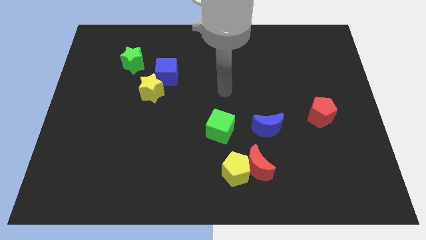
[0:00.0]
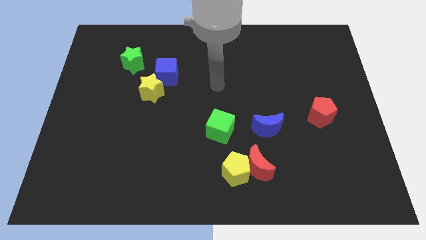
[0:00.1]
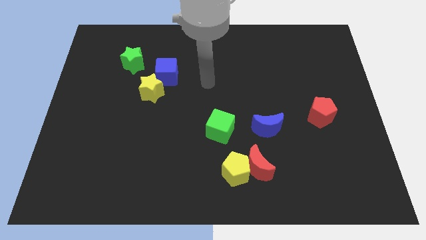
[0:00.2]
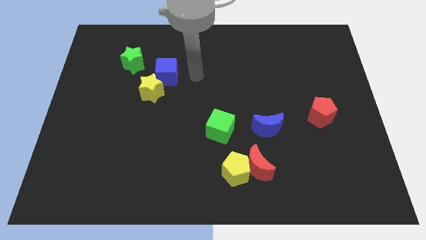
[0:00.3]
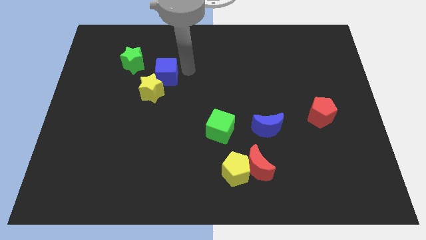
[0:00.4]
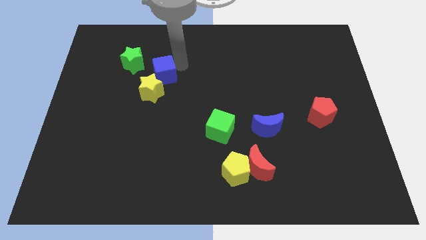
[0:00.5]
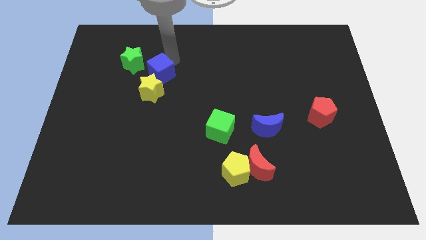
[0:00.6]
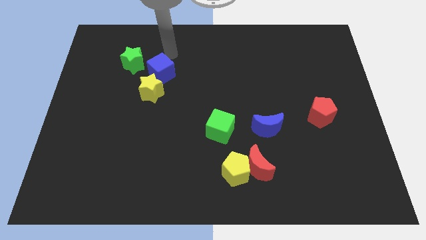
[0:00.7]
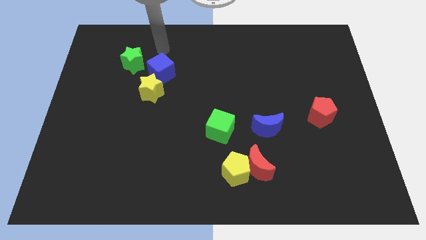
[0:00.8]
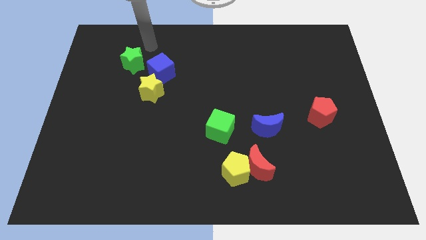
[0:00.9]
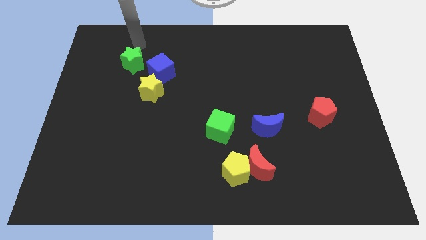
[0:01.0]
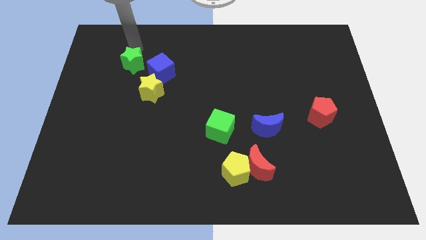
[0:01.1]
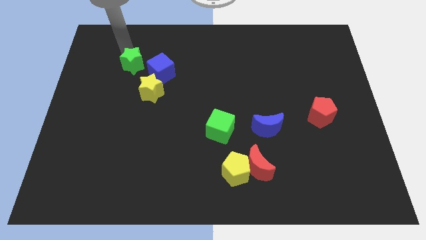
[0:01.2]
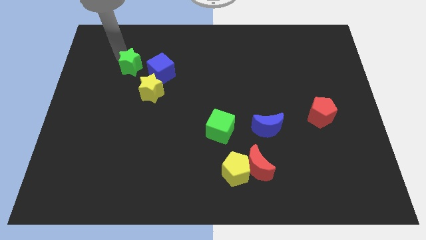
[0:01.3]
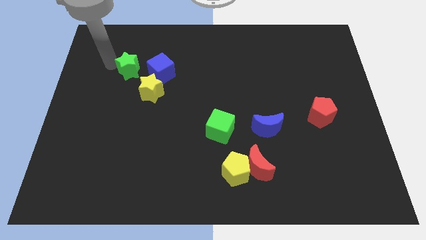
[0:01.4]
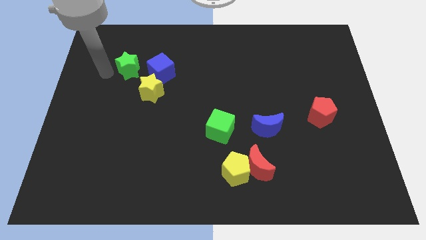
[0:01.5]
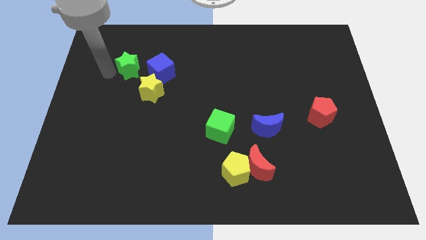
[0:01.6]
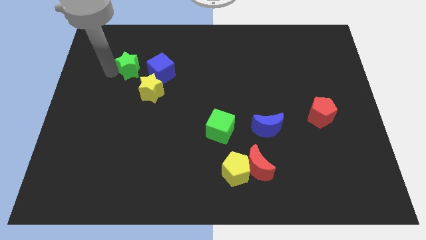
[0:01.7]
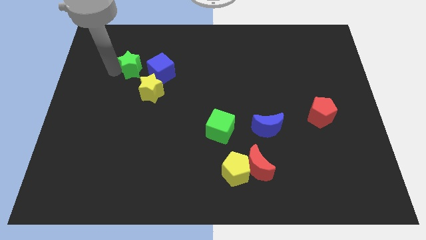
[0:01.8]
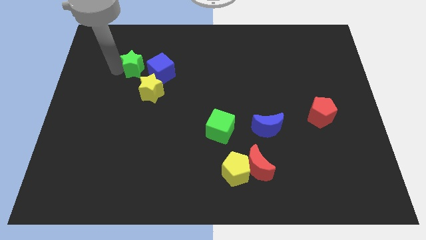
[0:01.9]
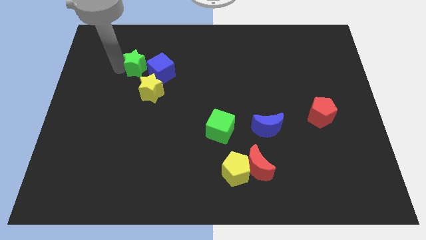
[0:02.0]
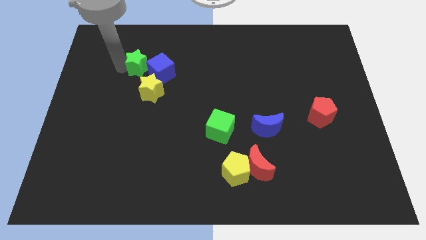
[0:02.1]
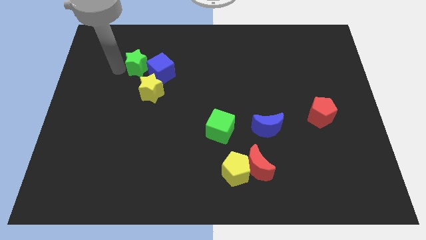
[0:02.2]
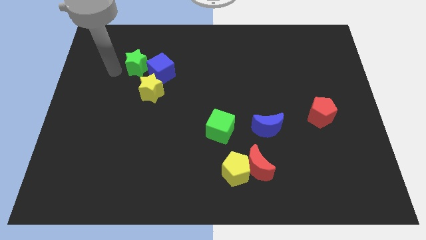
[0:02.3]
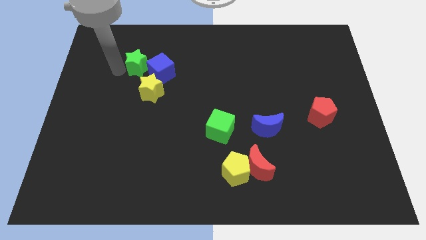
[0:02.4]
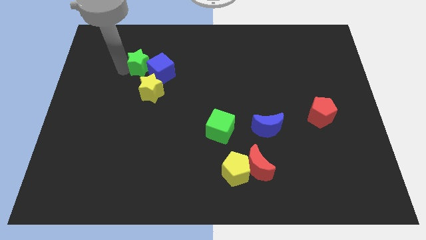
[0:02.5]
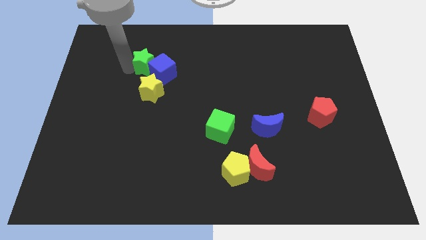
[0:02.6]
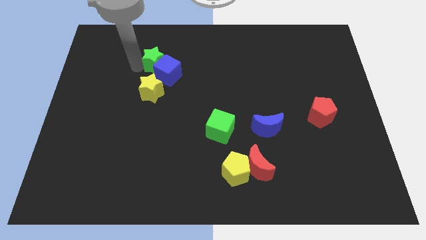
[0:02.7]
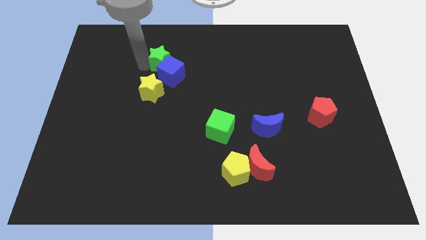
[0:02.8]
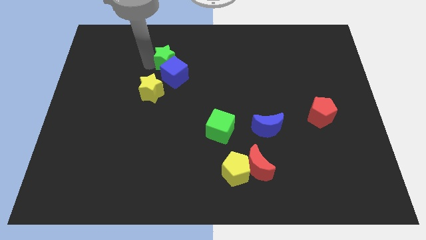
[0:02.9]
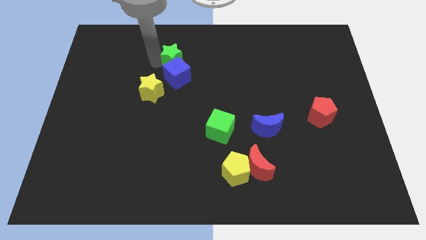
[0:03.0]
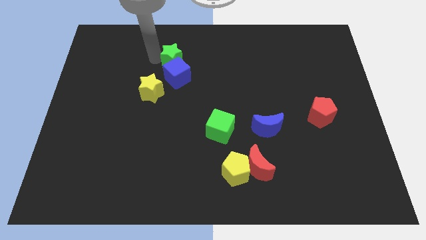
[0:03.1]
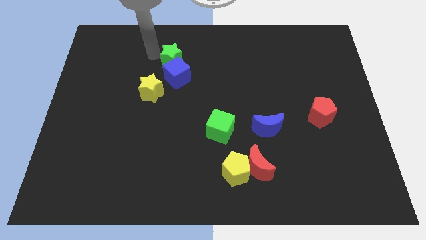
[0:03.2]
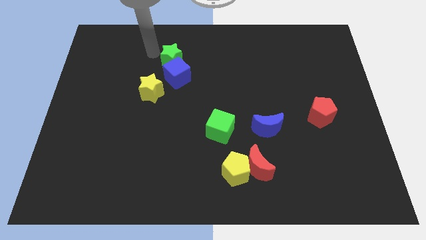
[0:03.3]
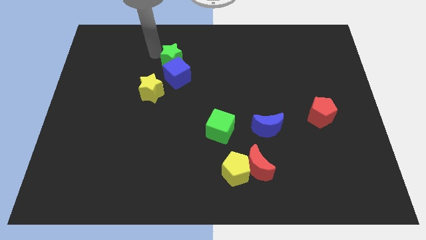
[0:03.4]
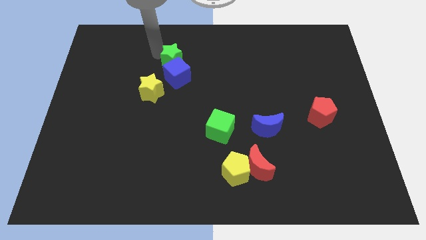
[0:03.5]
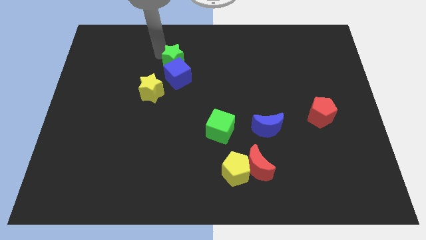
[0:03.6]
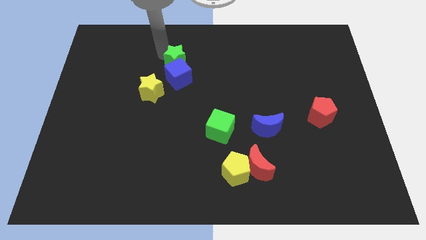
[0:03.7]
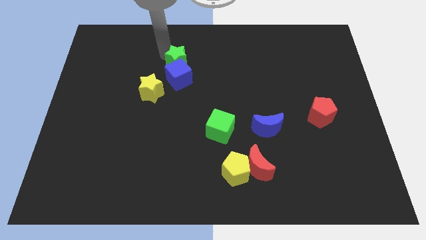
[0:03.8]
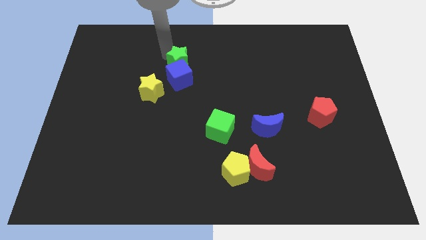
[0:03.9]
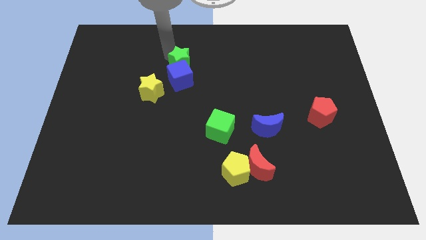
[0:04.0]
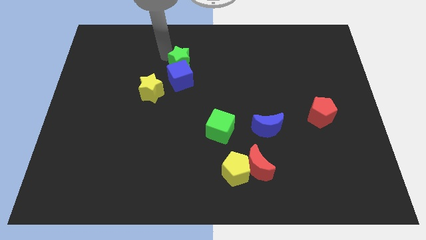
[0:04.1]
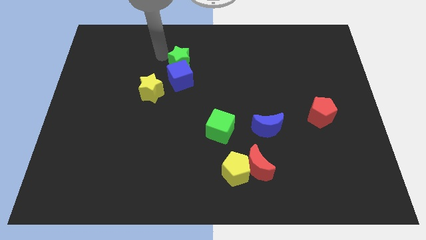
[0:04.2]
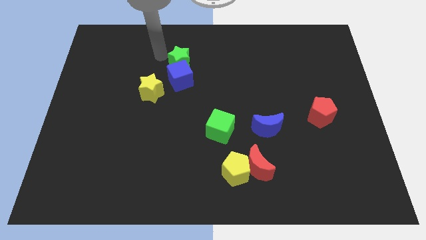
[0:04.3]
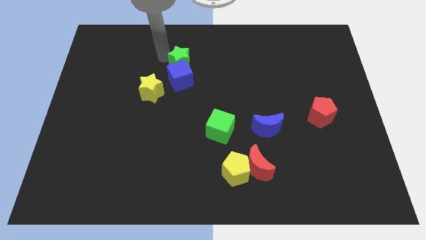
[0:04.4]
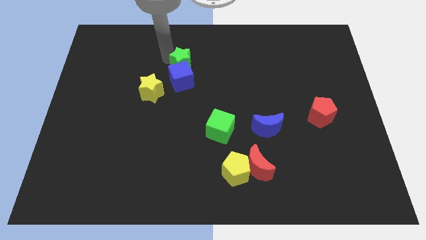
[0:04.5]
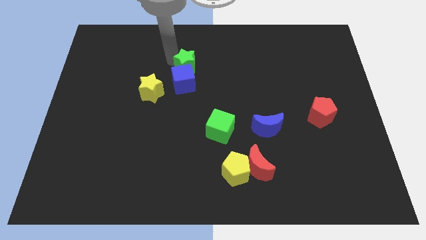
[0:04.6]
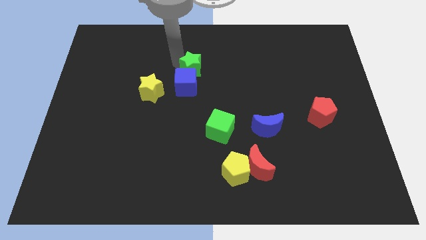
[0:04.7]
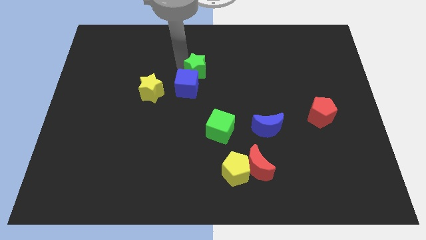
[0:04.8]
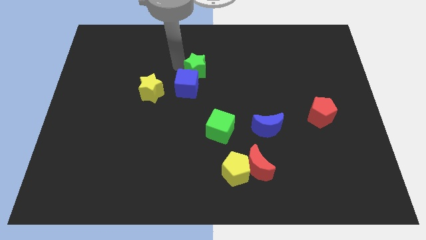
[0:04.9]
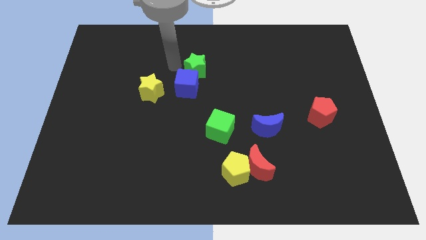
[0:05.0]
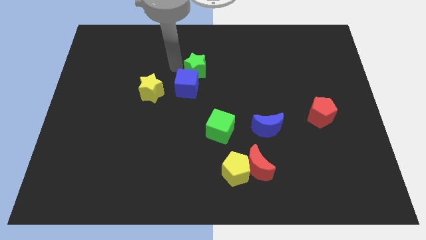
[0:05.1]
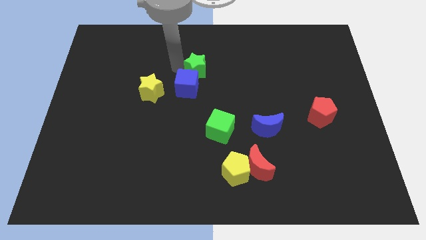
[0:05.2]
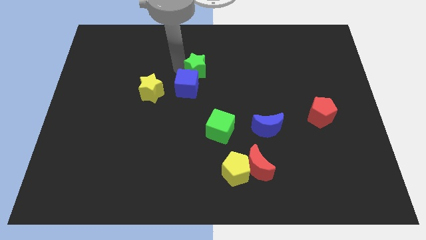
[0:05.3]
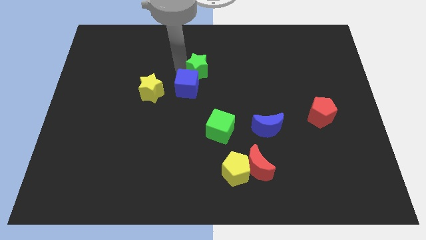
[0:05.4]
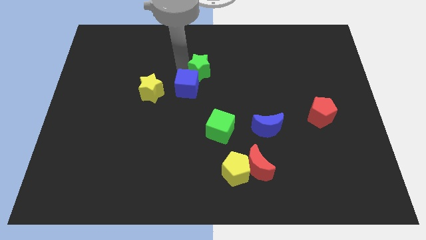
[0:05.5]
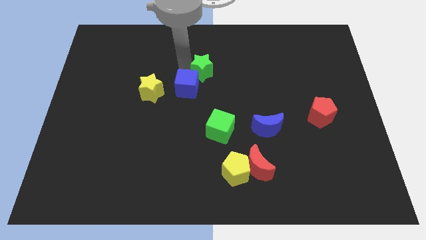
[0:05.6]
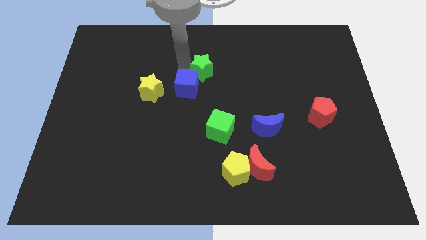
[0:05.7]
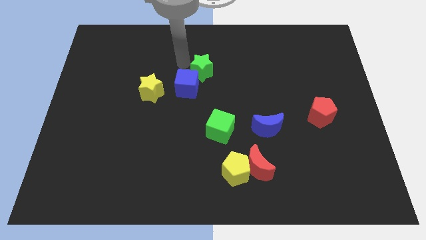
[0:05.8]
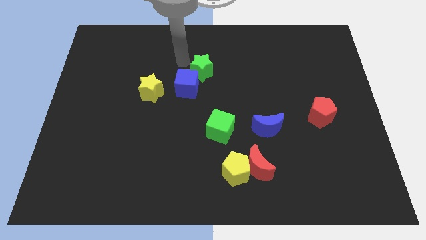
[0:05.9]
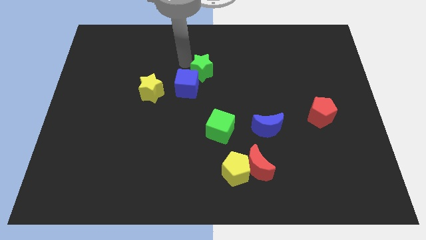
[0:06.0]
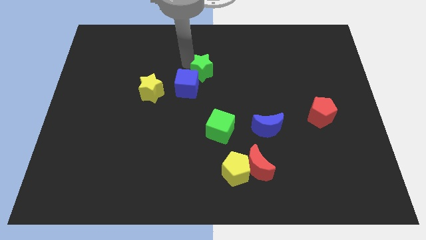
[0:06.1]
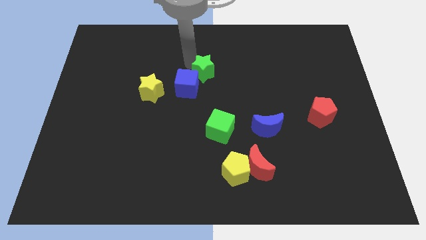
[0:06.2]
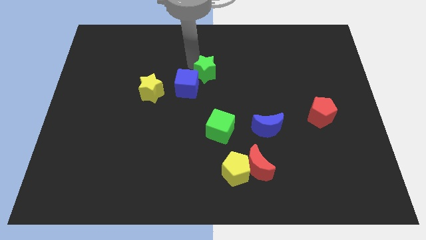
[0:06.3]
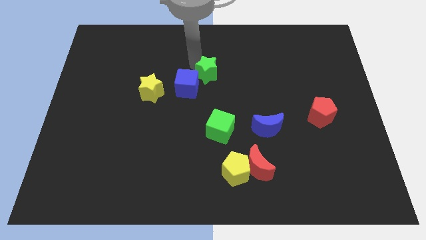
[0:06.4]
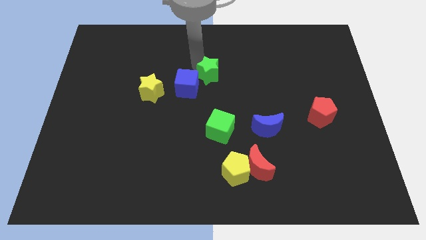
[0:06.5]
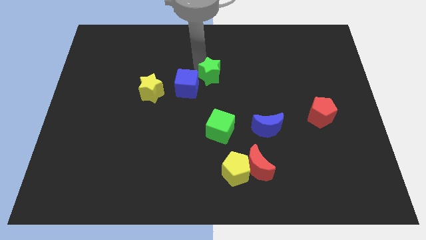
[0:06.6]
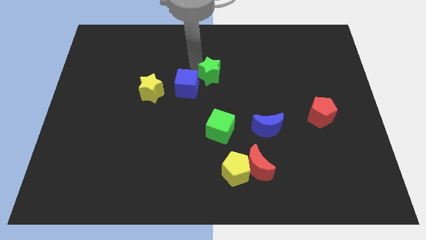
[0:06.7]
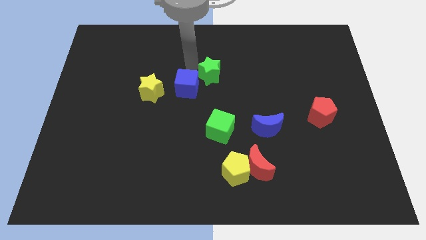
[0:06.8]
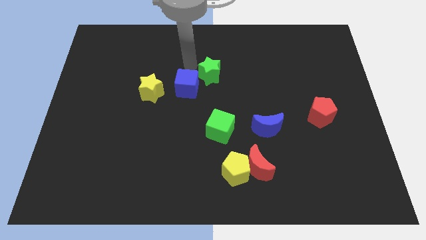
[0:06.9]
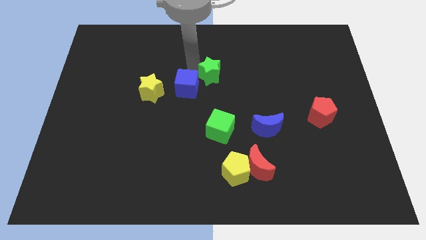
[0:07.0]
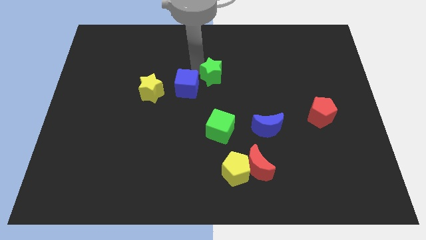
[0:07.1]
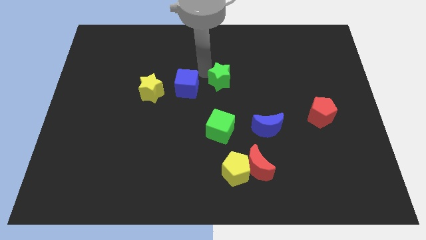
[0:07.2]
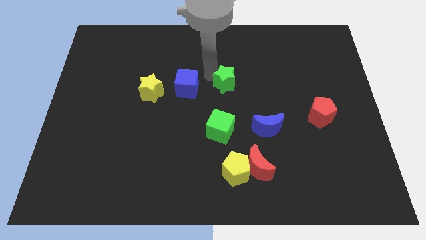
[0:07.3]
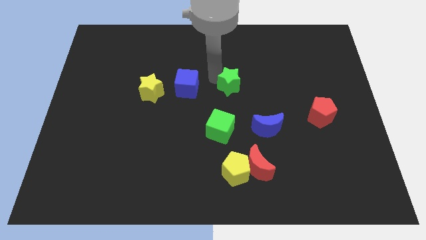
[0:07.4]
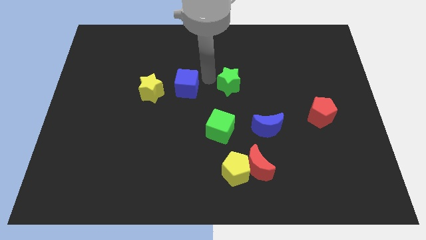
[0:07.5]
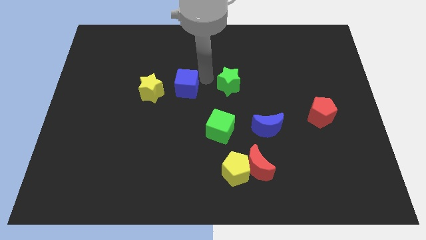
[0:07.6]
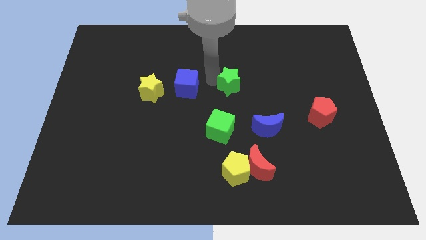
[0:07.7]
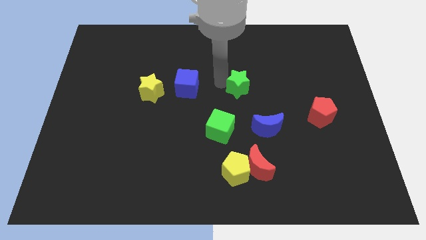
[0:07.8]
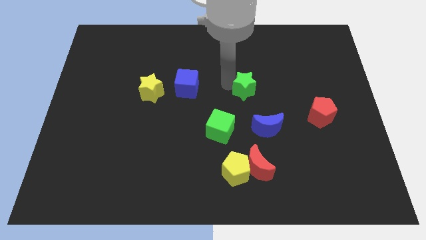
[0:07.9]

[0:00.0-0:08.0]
push the green star to the top of the blue moon
